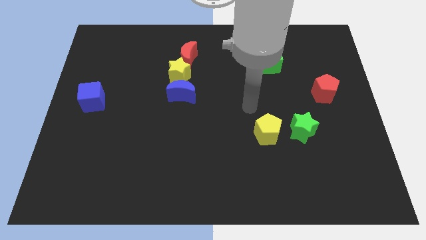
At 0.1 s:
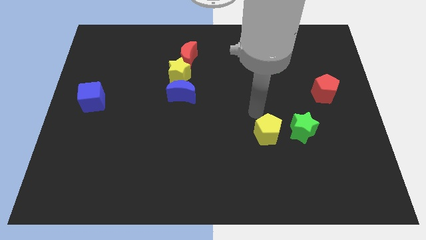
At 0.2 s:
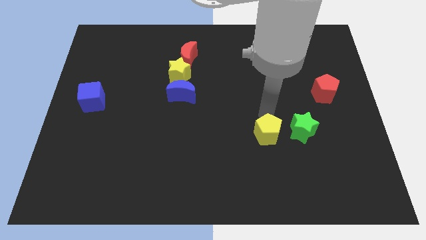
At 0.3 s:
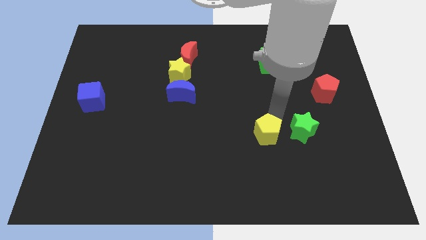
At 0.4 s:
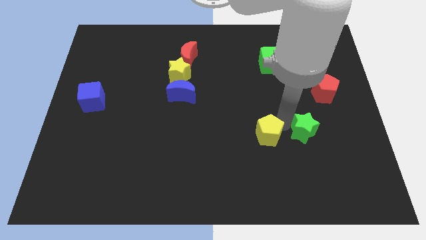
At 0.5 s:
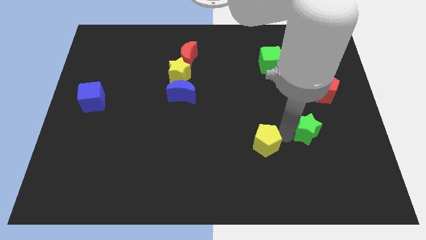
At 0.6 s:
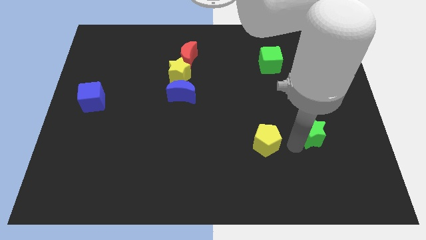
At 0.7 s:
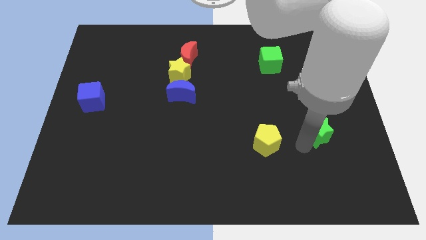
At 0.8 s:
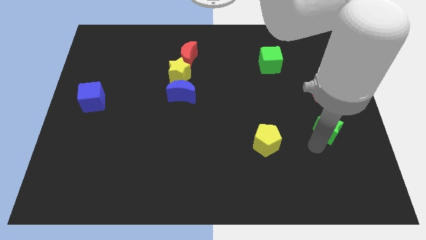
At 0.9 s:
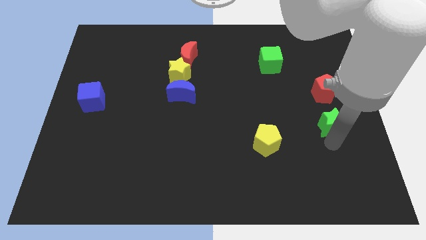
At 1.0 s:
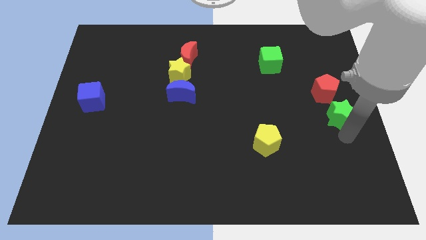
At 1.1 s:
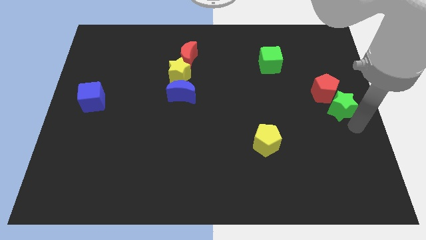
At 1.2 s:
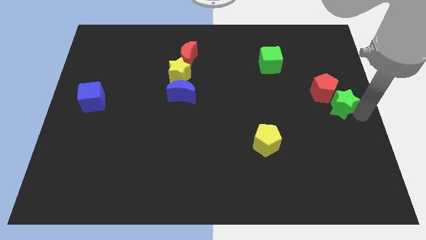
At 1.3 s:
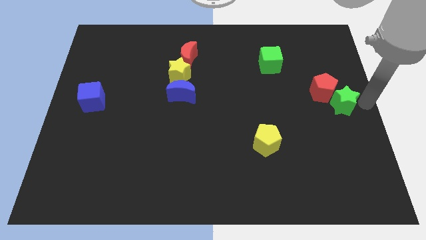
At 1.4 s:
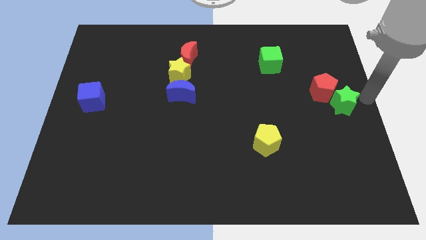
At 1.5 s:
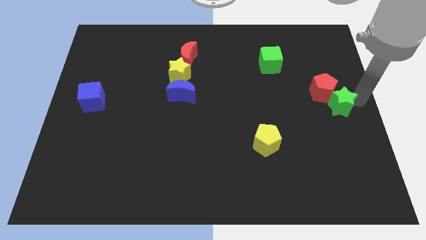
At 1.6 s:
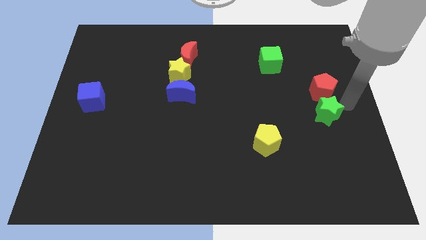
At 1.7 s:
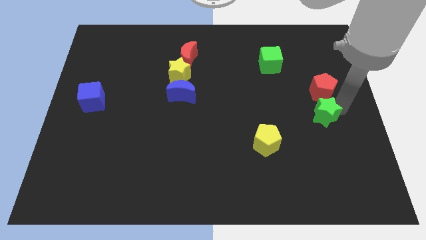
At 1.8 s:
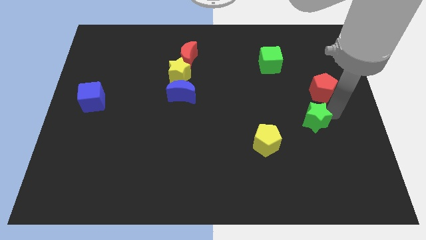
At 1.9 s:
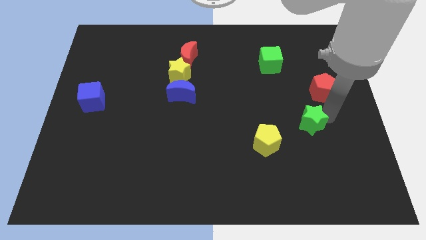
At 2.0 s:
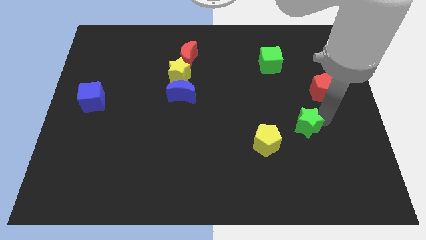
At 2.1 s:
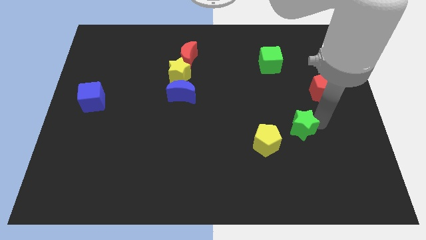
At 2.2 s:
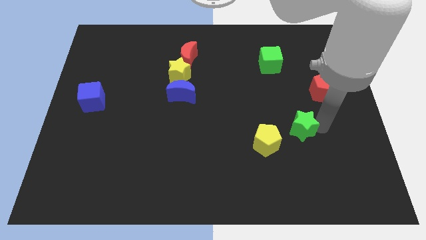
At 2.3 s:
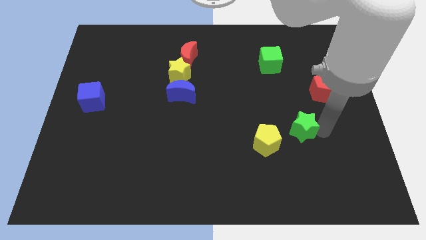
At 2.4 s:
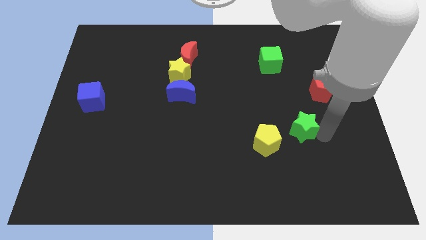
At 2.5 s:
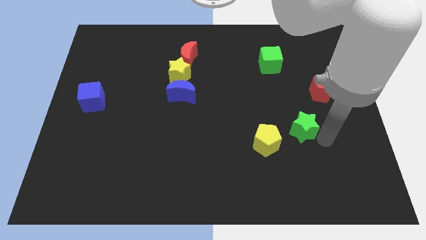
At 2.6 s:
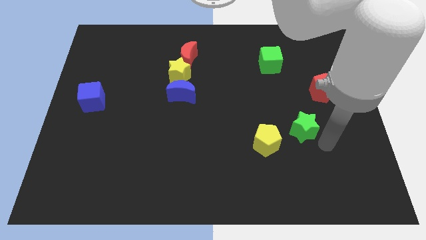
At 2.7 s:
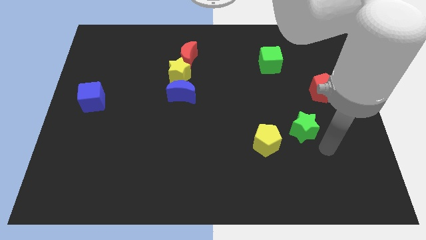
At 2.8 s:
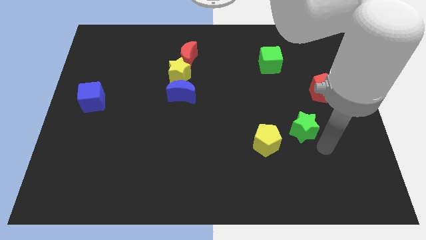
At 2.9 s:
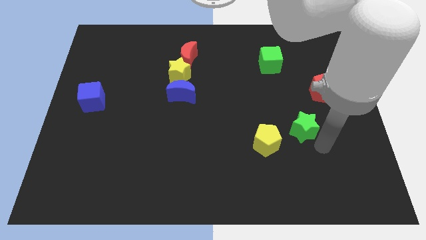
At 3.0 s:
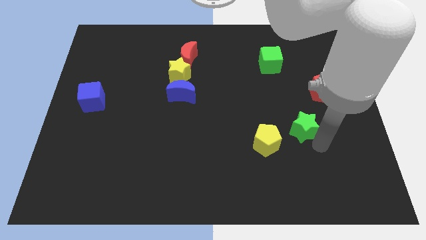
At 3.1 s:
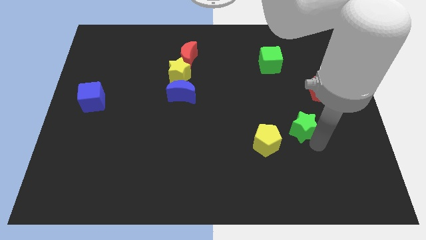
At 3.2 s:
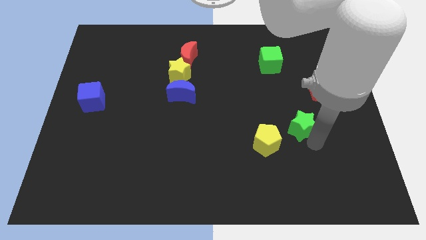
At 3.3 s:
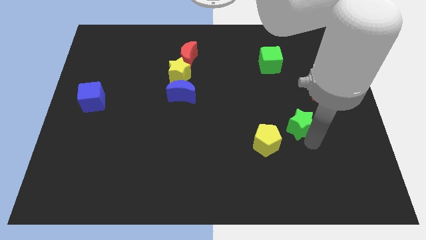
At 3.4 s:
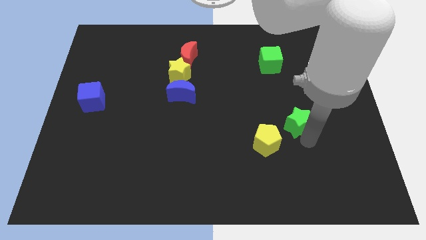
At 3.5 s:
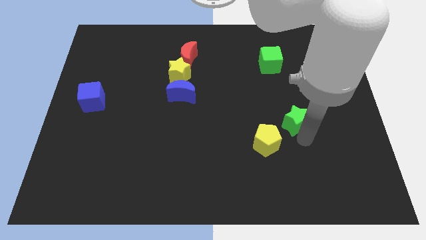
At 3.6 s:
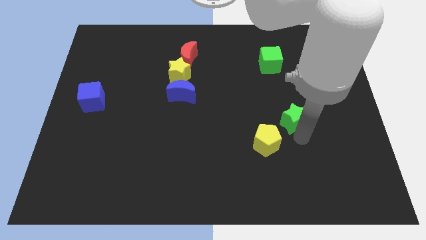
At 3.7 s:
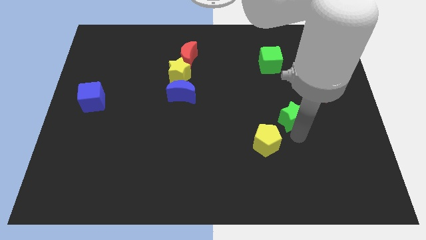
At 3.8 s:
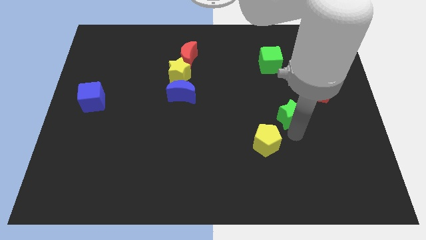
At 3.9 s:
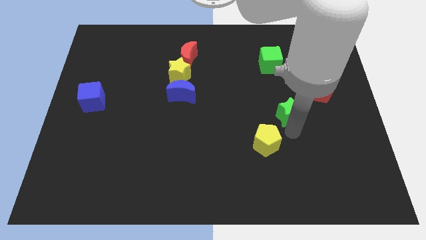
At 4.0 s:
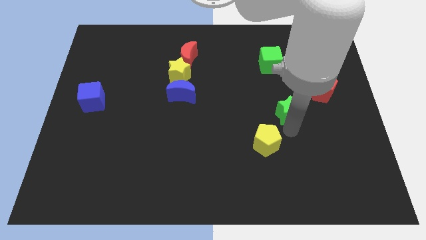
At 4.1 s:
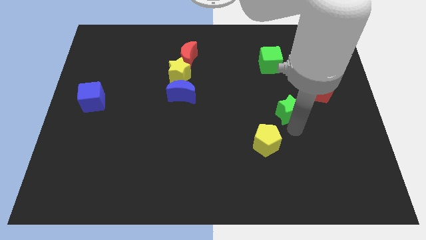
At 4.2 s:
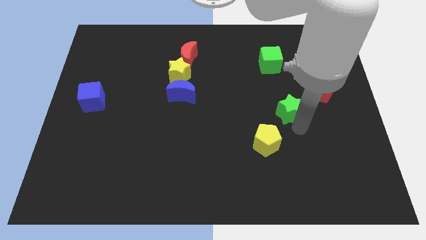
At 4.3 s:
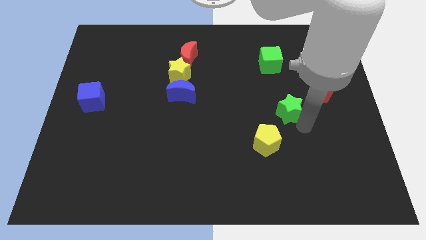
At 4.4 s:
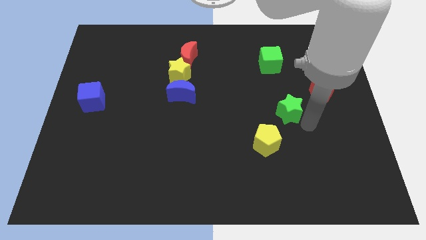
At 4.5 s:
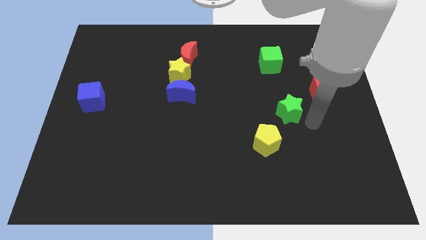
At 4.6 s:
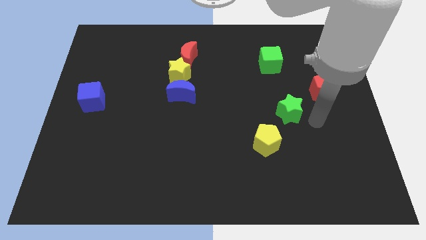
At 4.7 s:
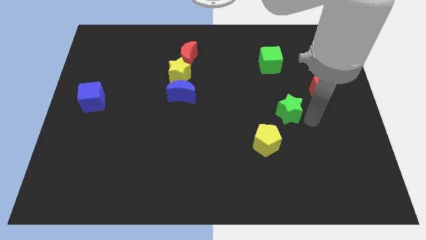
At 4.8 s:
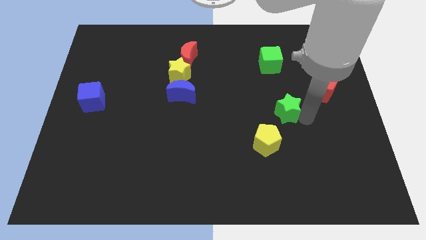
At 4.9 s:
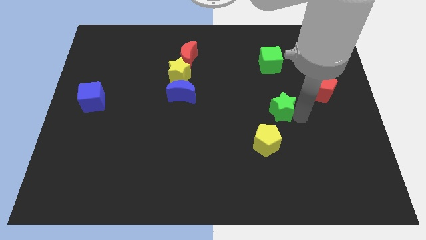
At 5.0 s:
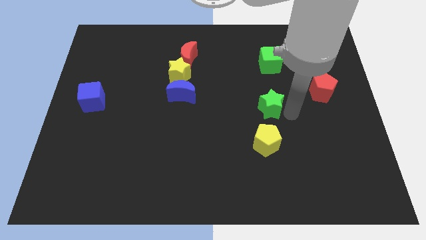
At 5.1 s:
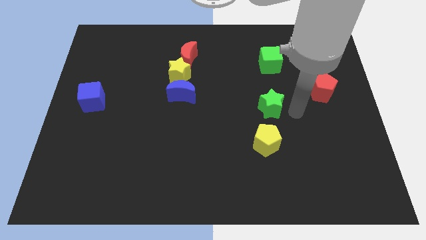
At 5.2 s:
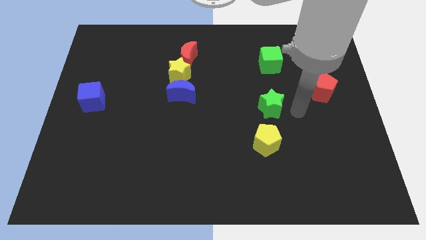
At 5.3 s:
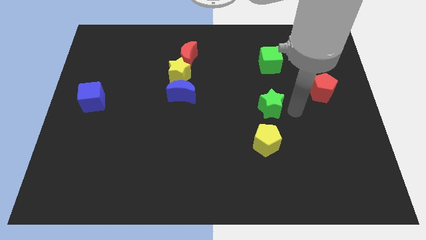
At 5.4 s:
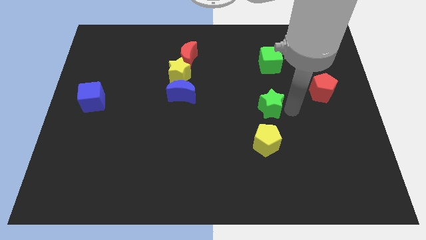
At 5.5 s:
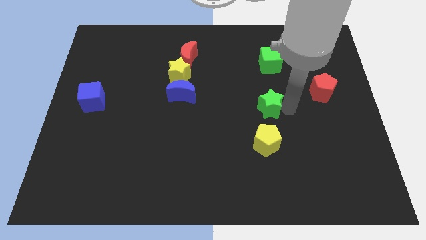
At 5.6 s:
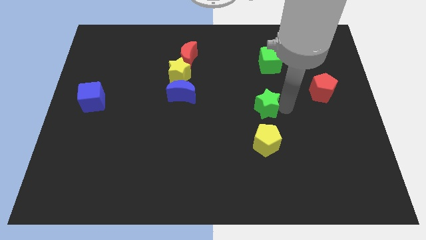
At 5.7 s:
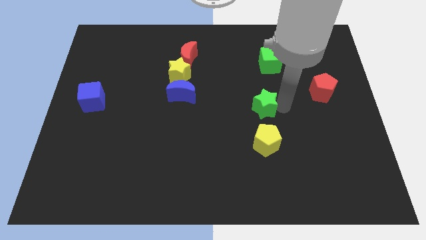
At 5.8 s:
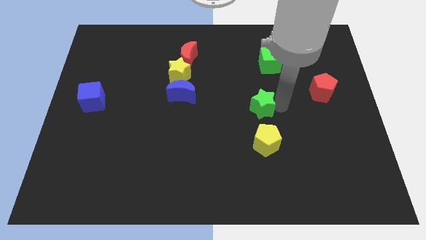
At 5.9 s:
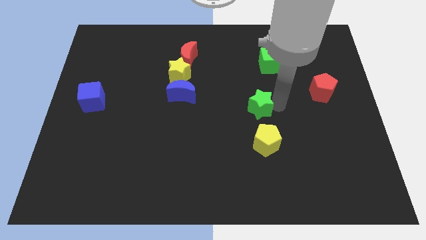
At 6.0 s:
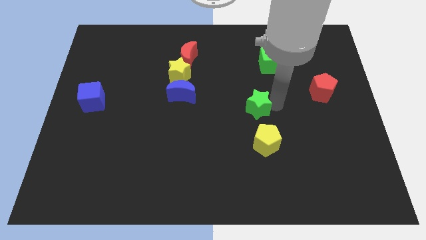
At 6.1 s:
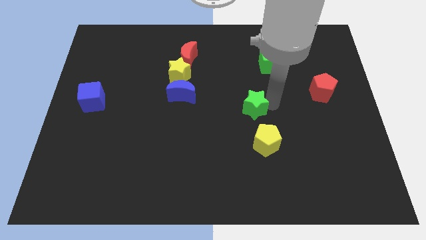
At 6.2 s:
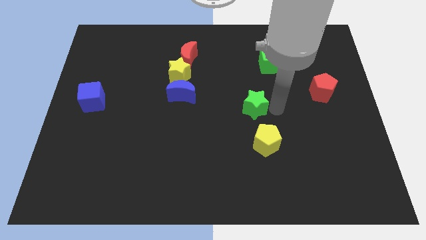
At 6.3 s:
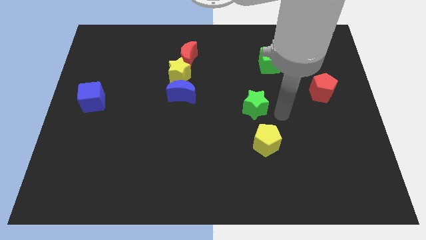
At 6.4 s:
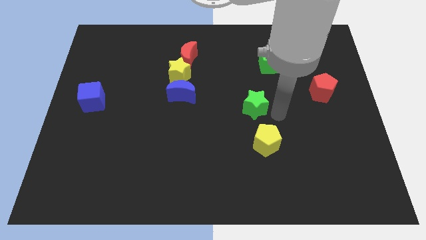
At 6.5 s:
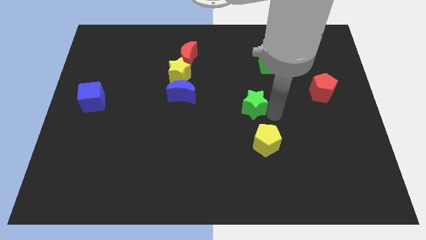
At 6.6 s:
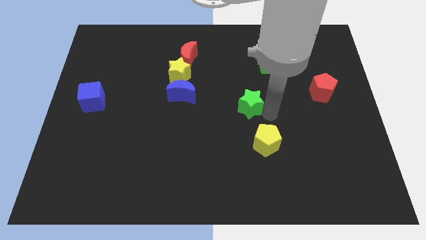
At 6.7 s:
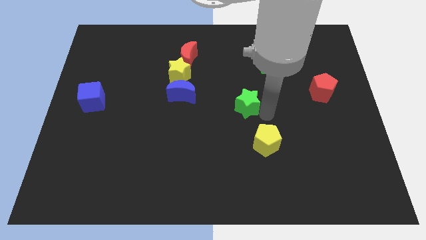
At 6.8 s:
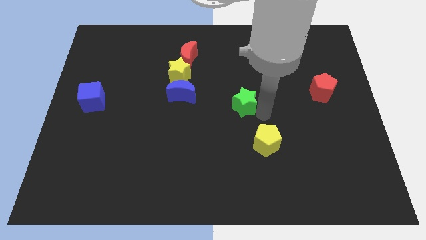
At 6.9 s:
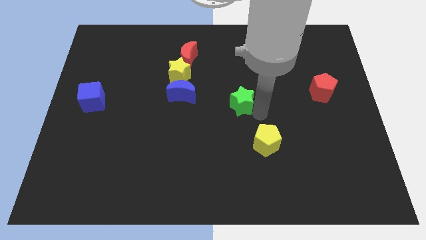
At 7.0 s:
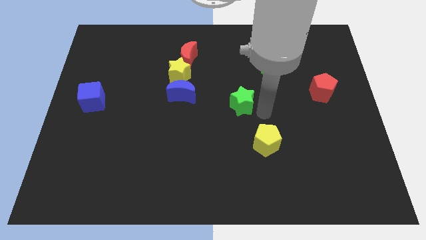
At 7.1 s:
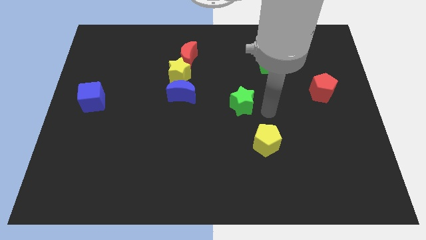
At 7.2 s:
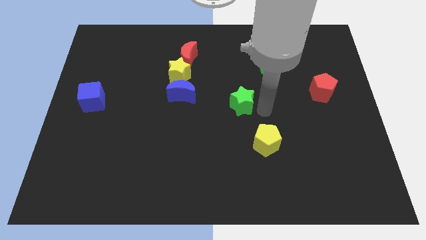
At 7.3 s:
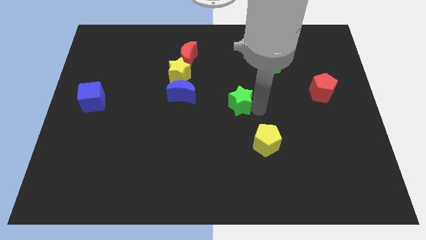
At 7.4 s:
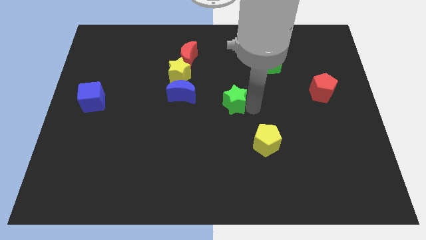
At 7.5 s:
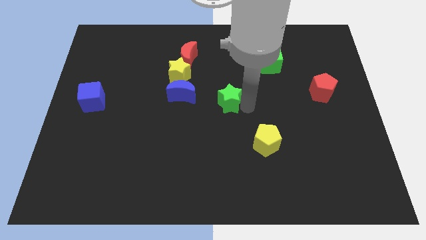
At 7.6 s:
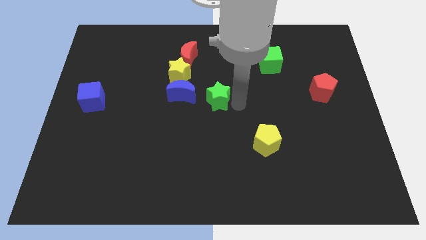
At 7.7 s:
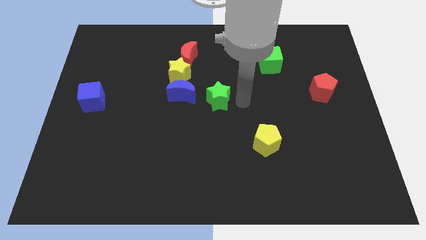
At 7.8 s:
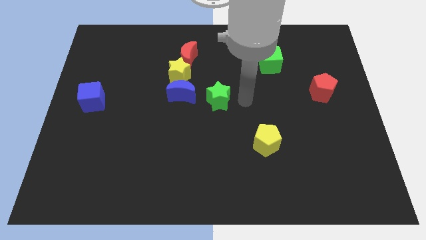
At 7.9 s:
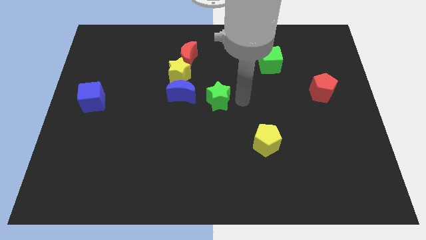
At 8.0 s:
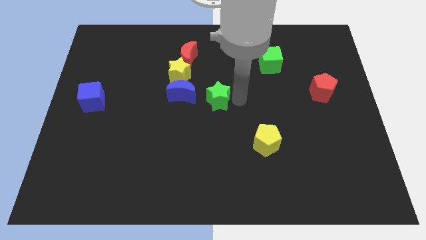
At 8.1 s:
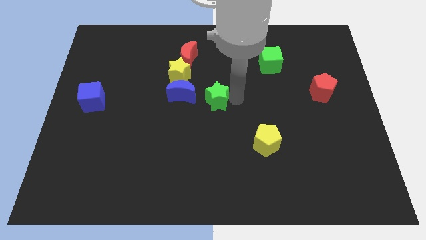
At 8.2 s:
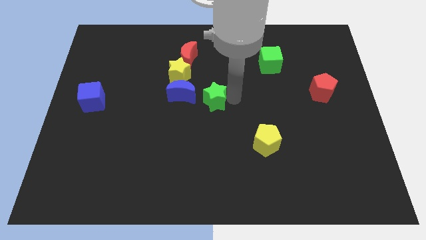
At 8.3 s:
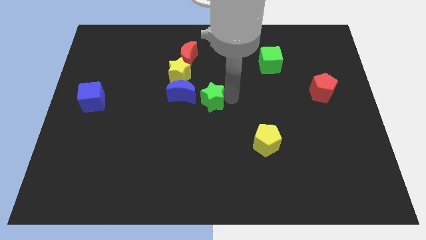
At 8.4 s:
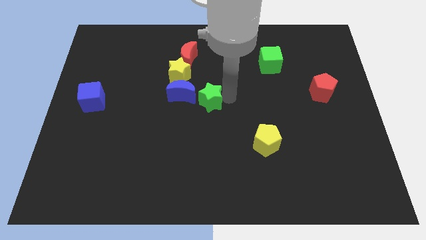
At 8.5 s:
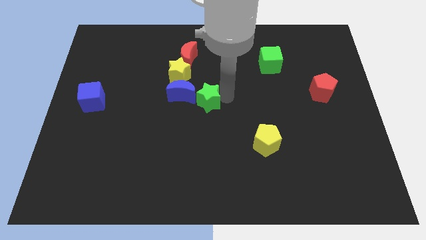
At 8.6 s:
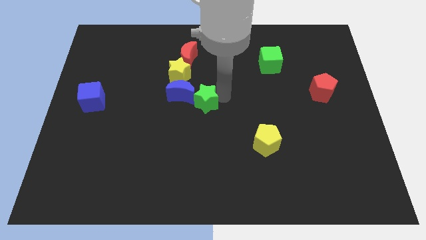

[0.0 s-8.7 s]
push the green star next to the blue moon
